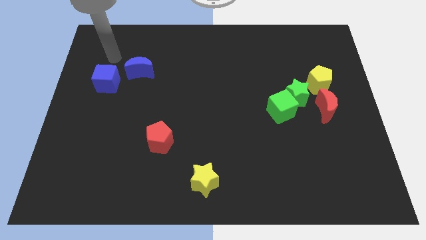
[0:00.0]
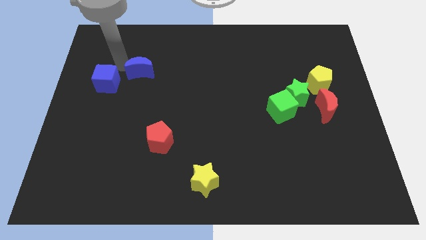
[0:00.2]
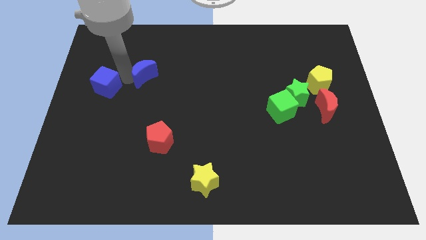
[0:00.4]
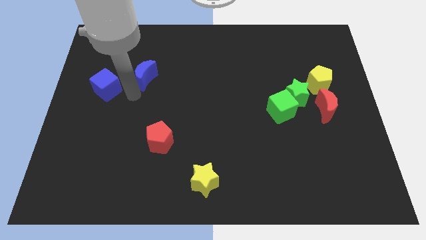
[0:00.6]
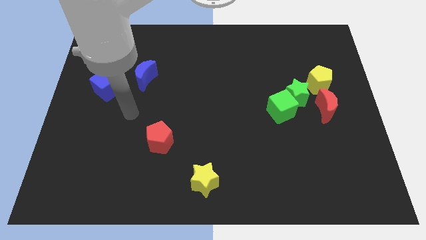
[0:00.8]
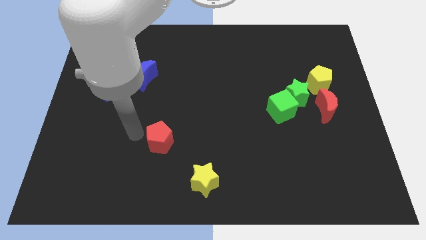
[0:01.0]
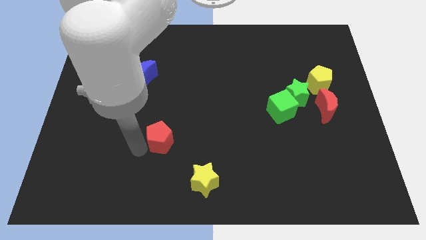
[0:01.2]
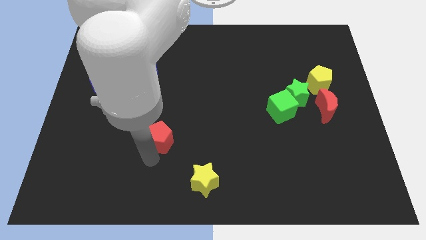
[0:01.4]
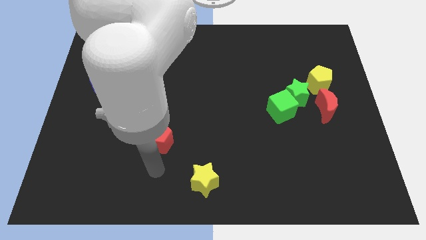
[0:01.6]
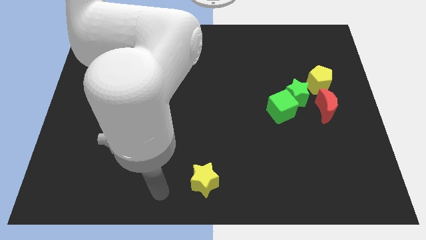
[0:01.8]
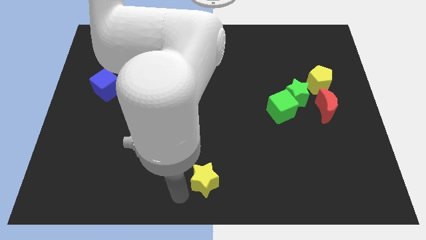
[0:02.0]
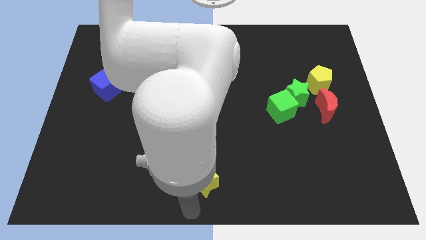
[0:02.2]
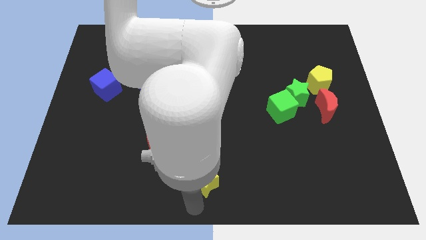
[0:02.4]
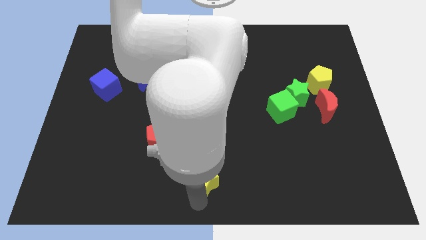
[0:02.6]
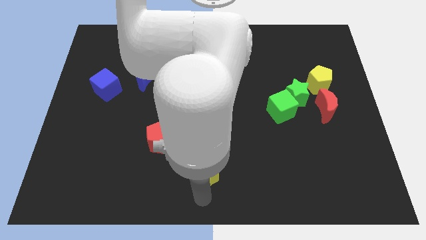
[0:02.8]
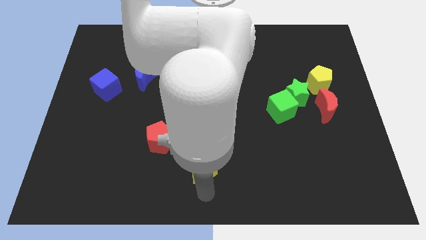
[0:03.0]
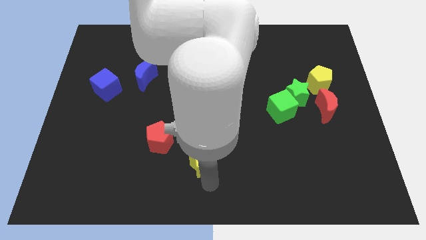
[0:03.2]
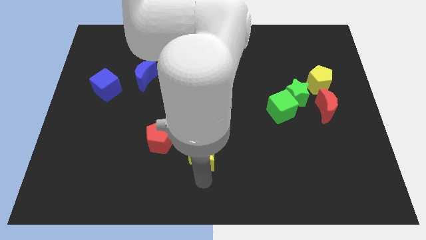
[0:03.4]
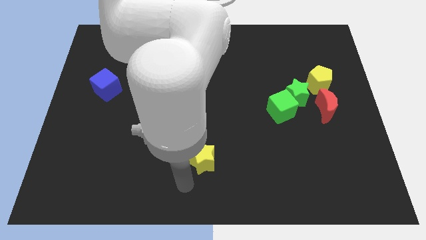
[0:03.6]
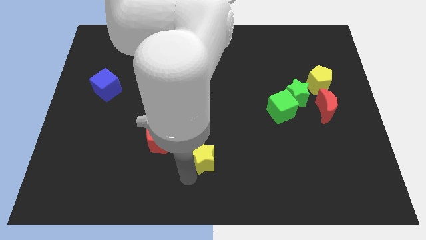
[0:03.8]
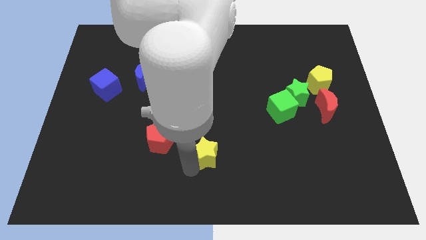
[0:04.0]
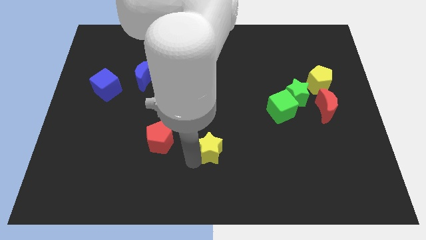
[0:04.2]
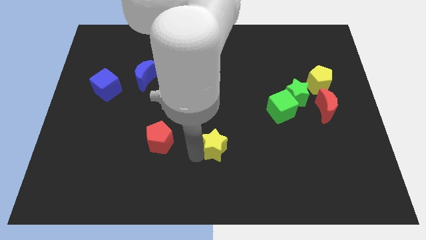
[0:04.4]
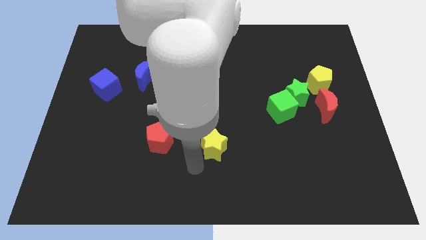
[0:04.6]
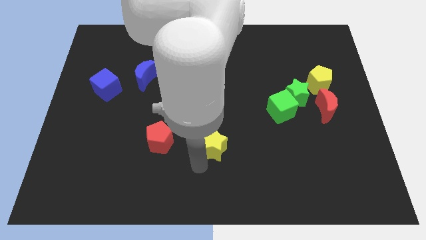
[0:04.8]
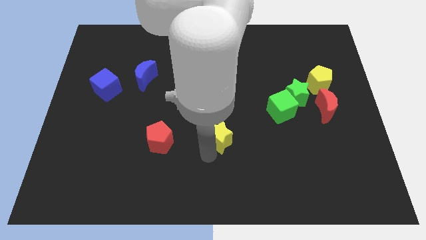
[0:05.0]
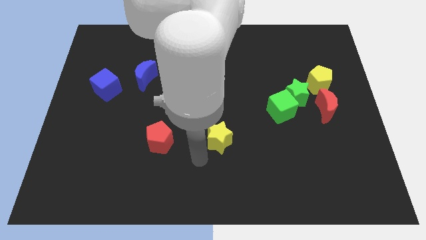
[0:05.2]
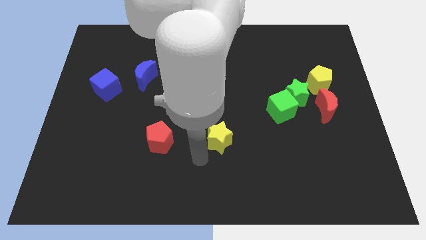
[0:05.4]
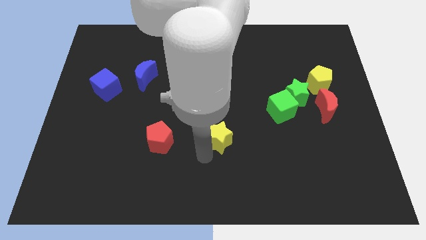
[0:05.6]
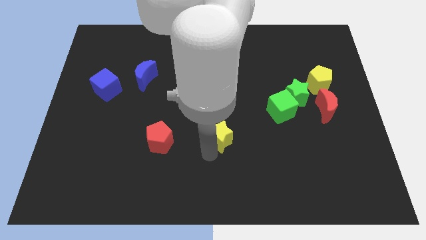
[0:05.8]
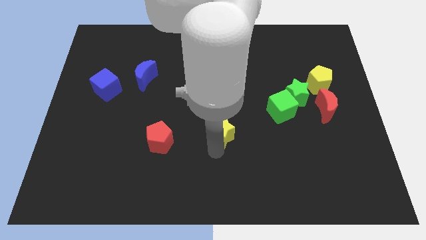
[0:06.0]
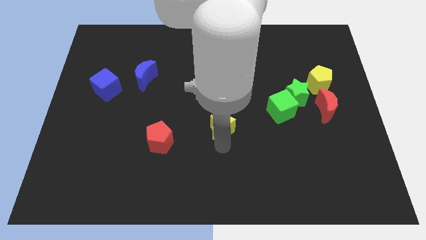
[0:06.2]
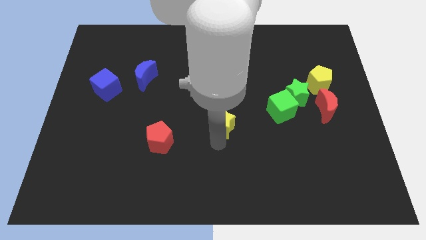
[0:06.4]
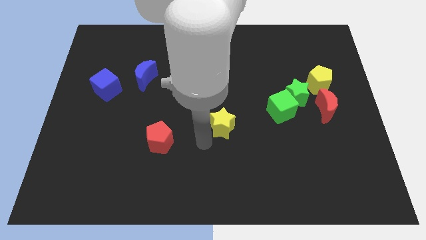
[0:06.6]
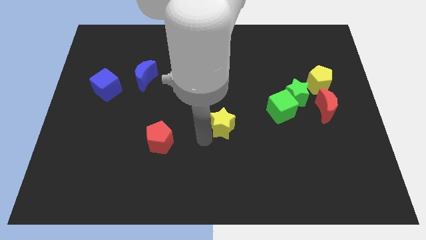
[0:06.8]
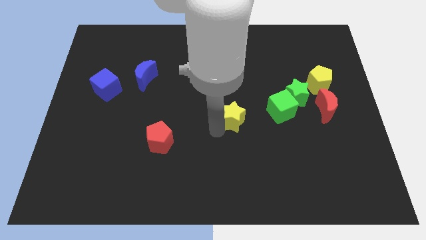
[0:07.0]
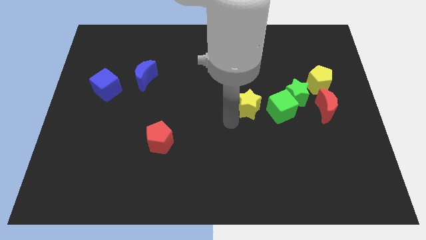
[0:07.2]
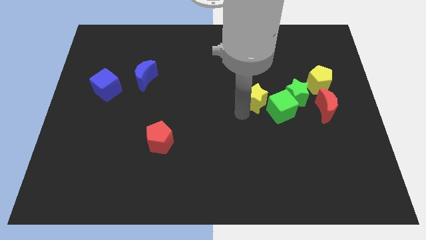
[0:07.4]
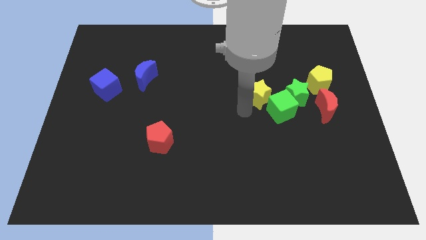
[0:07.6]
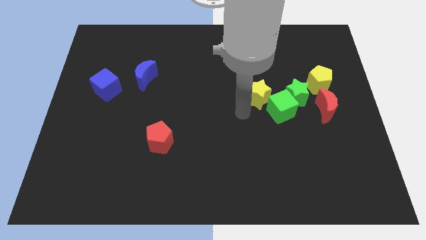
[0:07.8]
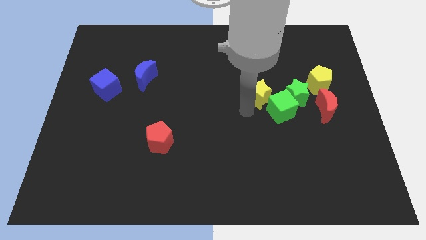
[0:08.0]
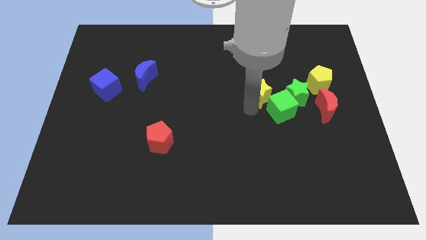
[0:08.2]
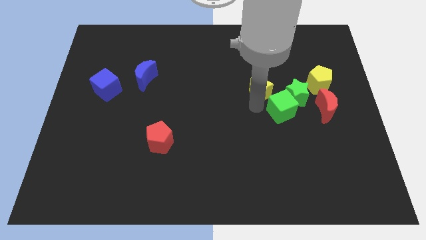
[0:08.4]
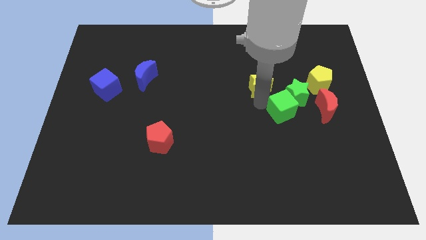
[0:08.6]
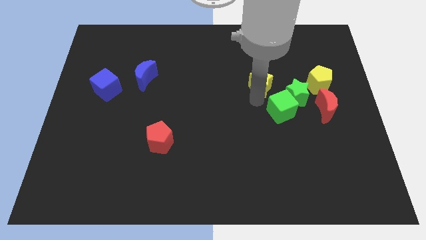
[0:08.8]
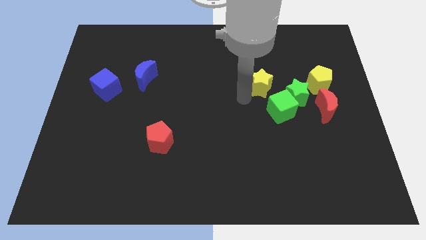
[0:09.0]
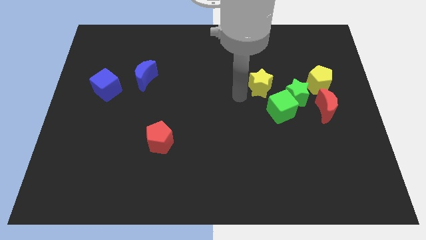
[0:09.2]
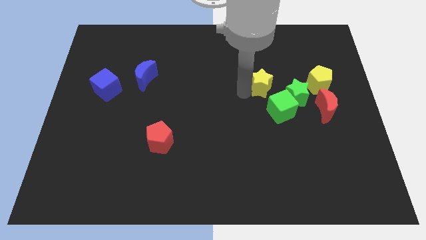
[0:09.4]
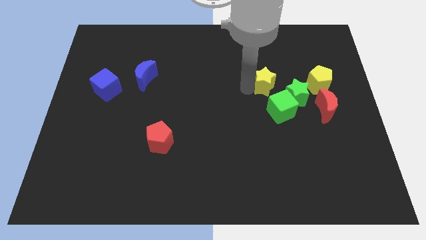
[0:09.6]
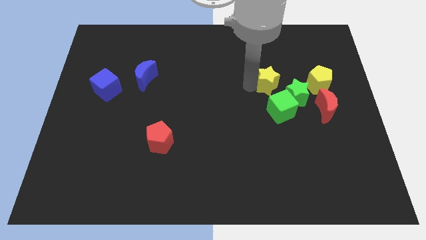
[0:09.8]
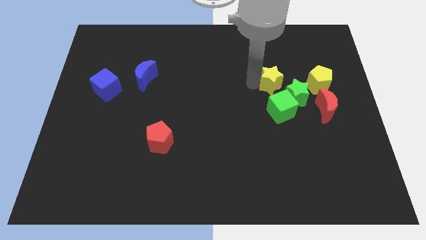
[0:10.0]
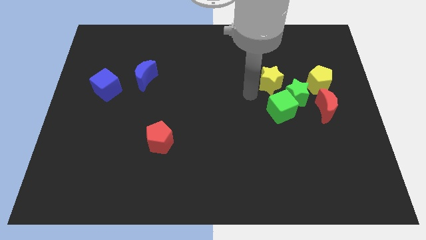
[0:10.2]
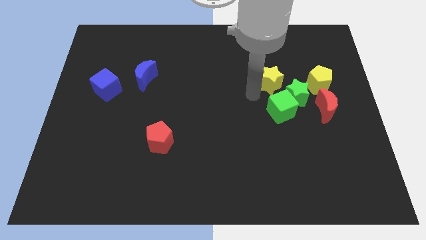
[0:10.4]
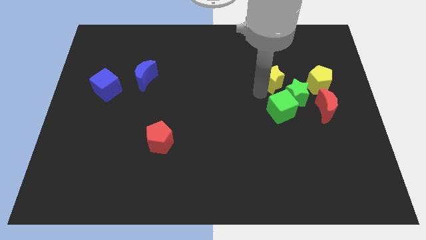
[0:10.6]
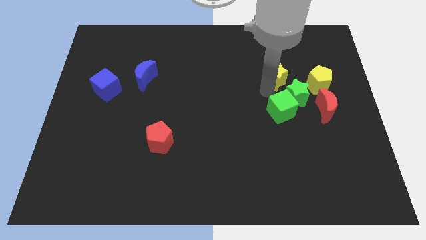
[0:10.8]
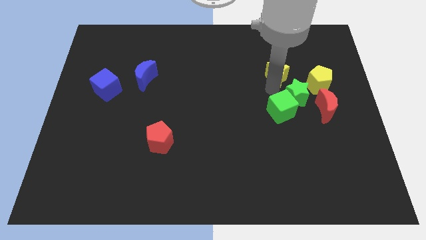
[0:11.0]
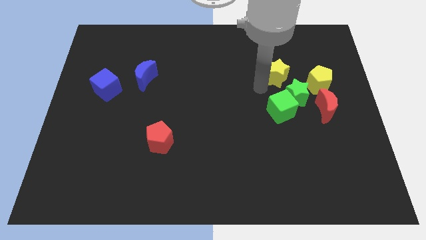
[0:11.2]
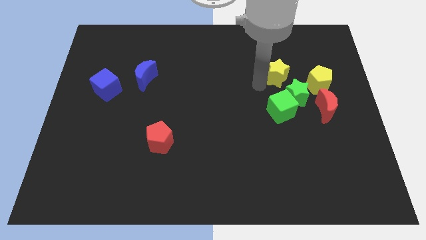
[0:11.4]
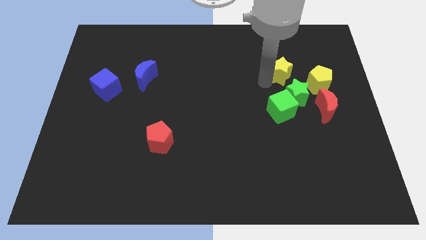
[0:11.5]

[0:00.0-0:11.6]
put the yellow star to the top left of the yellow pentagon
